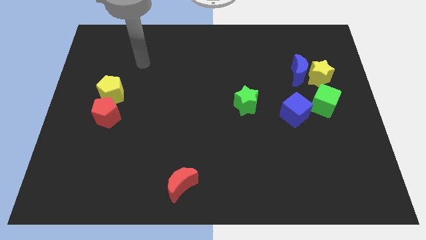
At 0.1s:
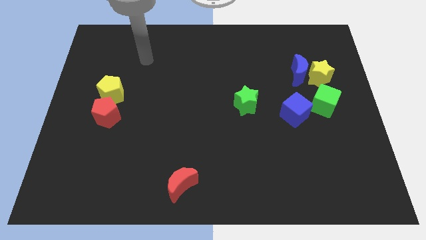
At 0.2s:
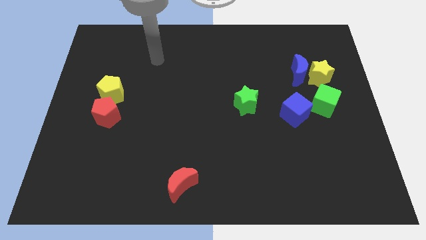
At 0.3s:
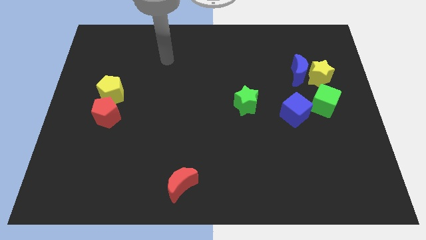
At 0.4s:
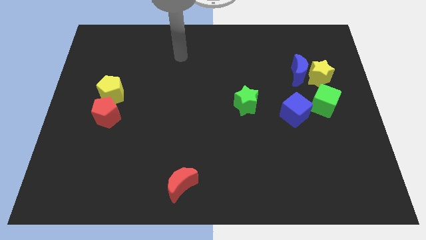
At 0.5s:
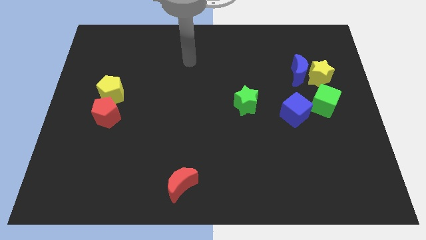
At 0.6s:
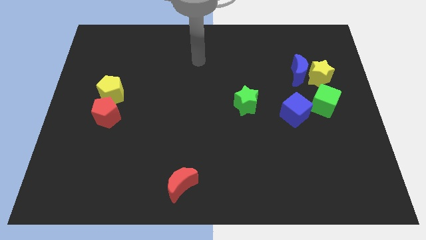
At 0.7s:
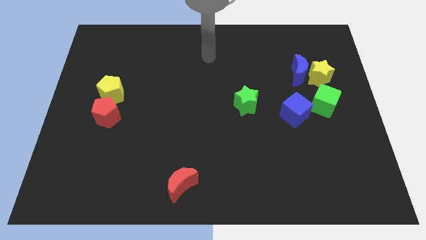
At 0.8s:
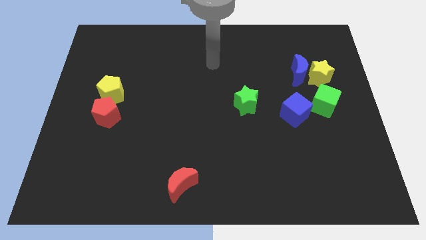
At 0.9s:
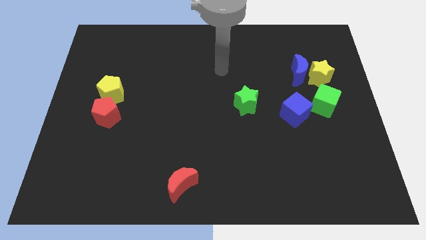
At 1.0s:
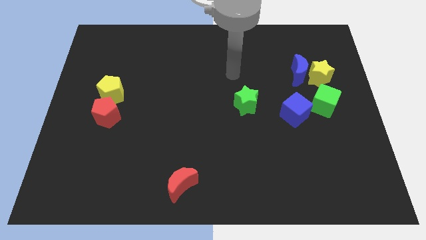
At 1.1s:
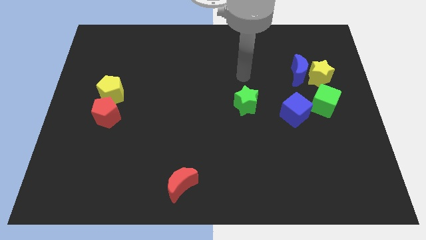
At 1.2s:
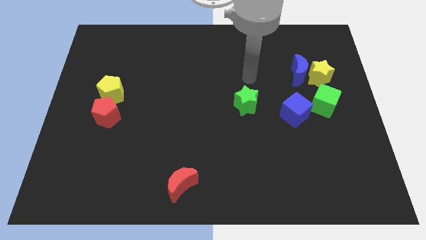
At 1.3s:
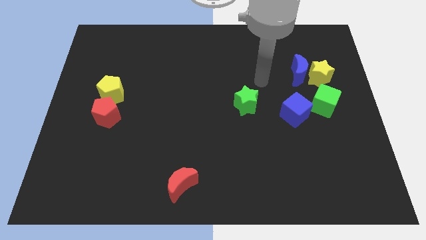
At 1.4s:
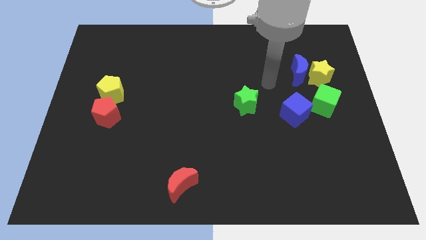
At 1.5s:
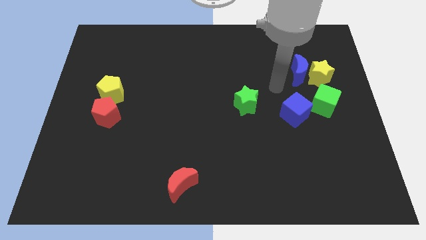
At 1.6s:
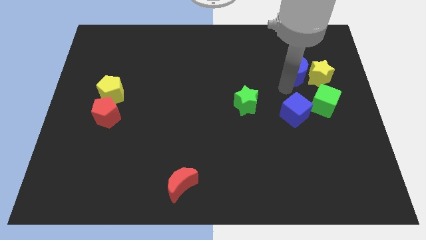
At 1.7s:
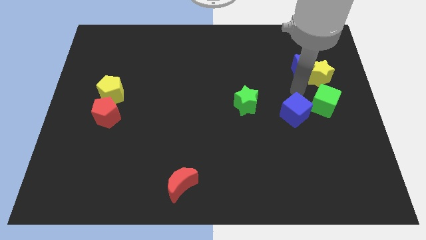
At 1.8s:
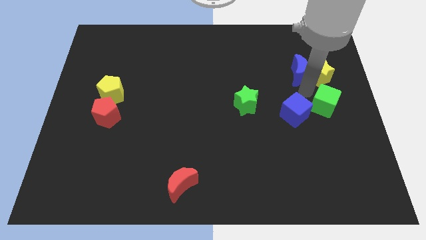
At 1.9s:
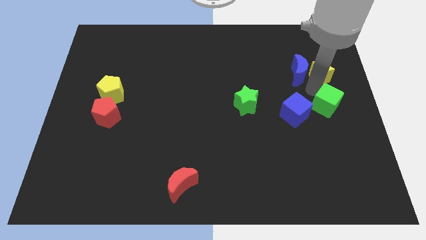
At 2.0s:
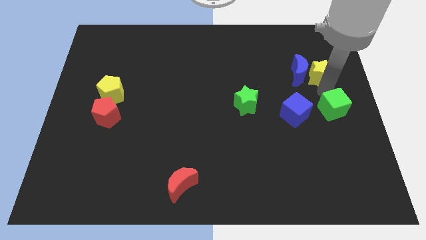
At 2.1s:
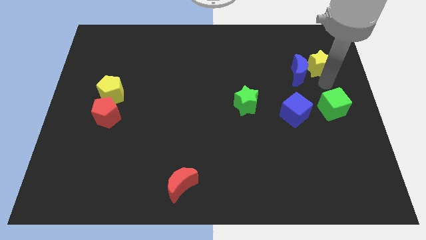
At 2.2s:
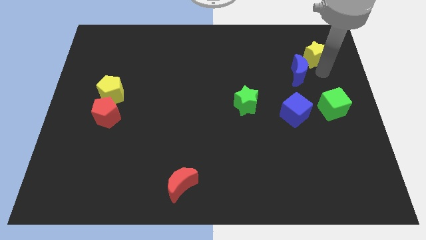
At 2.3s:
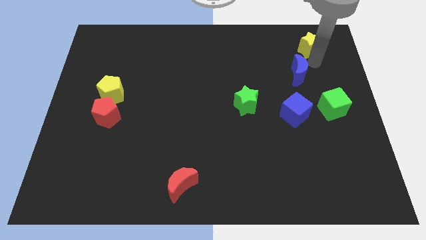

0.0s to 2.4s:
separate the blue moon from the yellow star

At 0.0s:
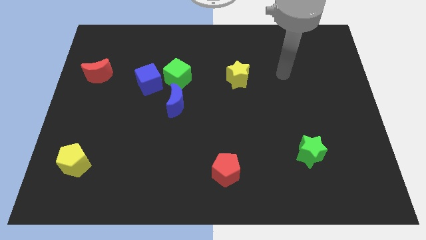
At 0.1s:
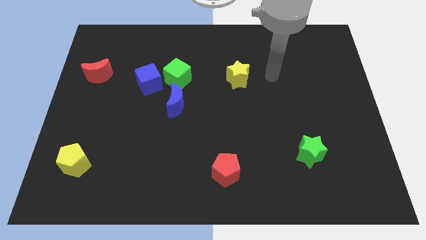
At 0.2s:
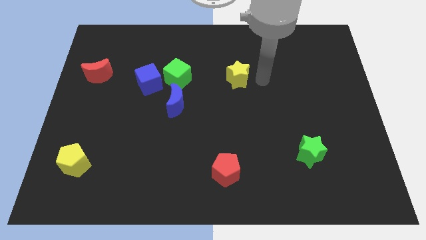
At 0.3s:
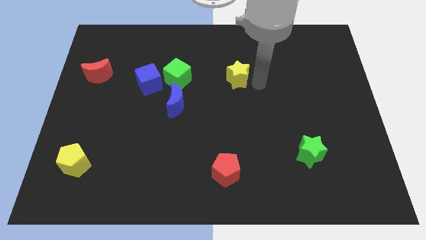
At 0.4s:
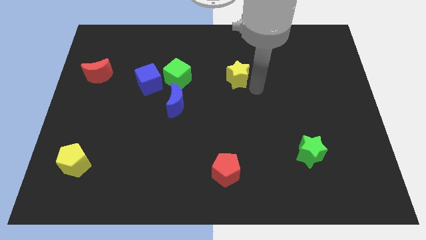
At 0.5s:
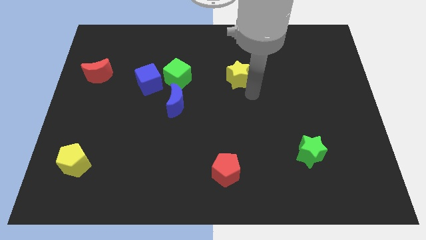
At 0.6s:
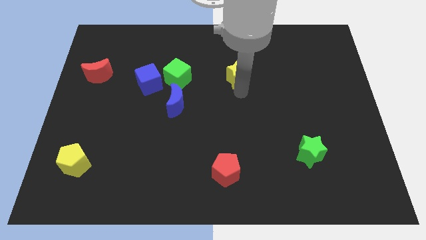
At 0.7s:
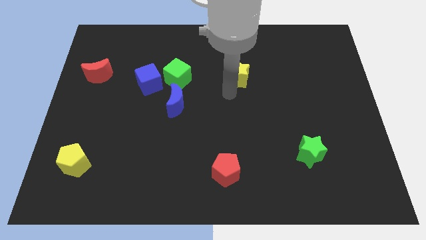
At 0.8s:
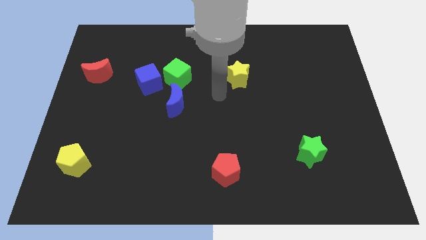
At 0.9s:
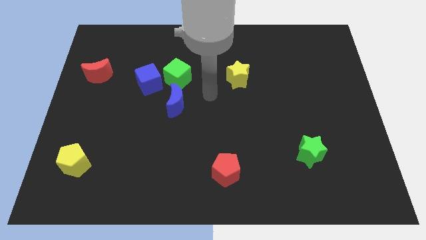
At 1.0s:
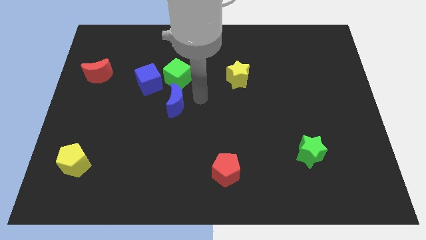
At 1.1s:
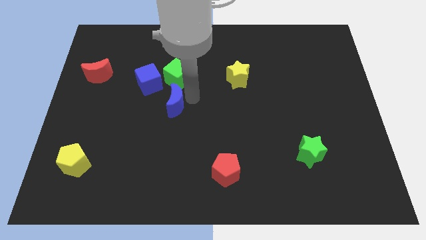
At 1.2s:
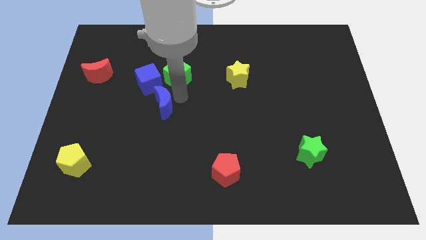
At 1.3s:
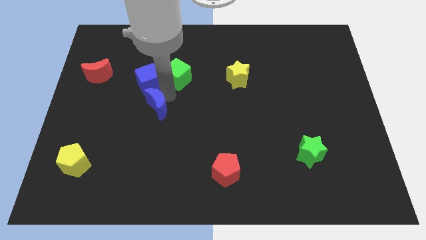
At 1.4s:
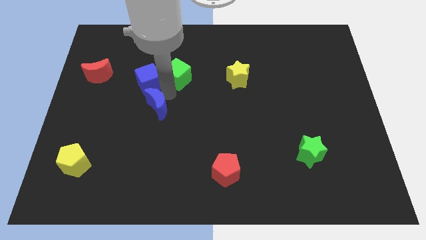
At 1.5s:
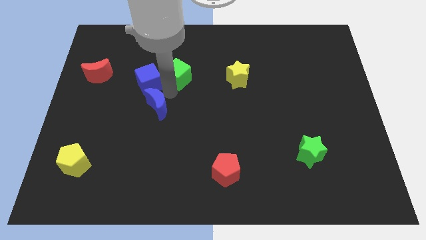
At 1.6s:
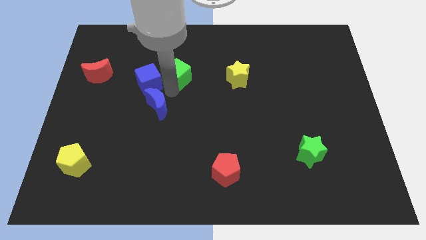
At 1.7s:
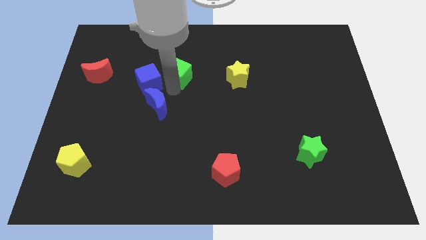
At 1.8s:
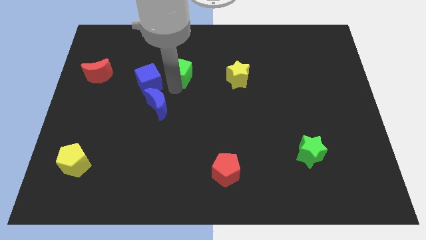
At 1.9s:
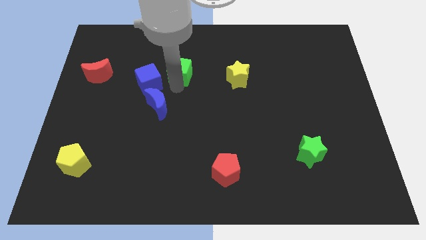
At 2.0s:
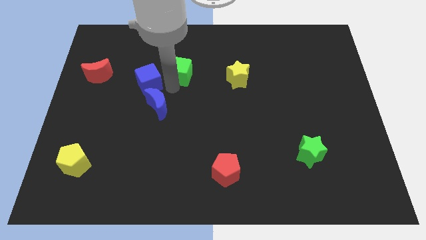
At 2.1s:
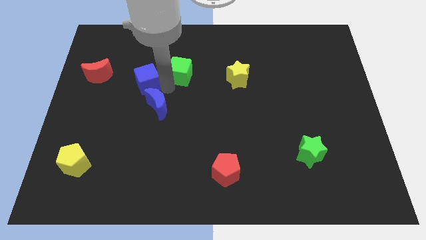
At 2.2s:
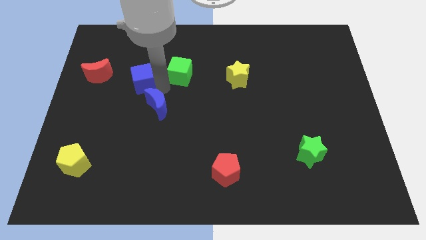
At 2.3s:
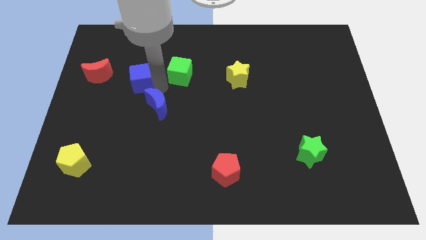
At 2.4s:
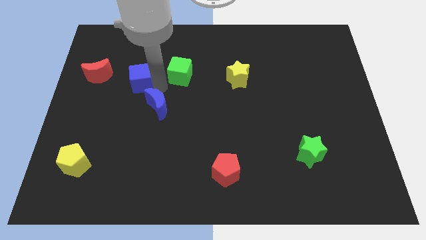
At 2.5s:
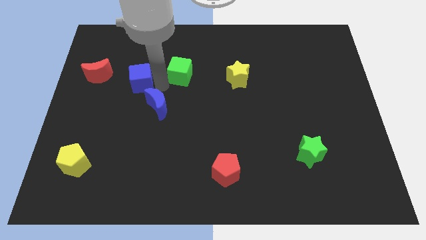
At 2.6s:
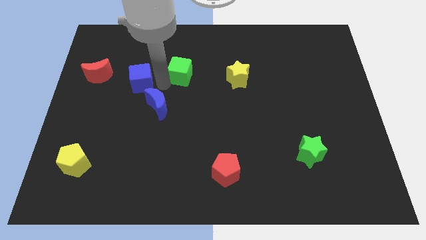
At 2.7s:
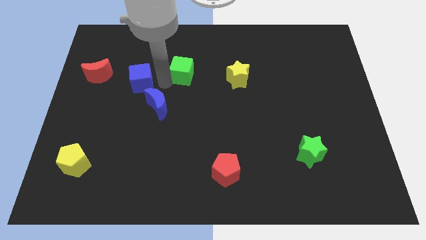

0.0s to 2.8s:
move the green cube away from the blue cube and blue moon

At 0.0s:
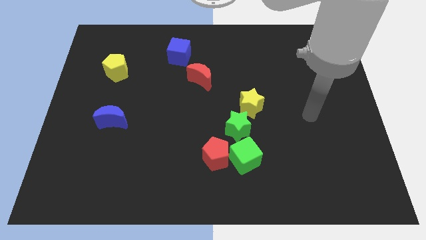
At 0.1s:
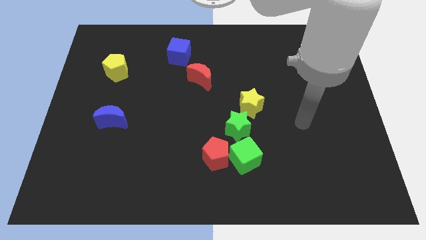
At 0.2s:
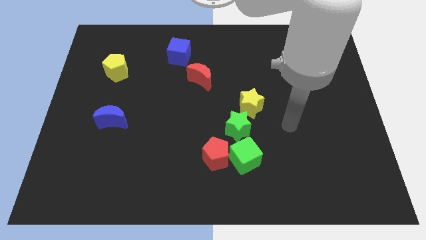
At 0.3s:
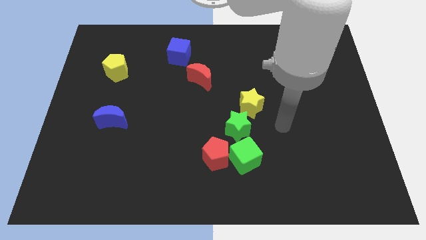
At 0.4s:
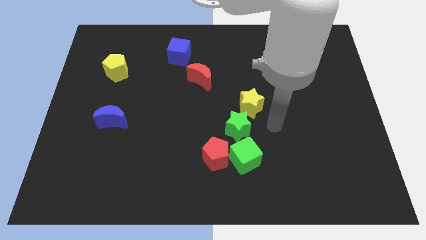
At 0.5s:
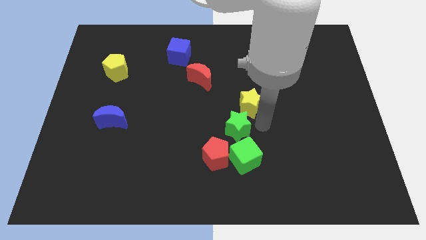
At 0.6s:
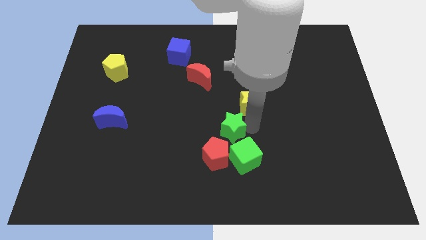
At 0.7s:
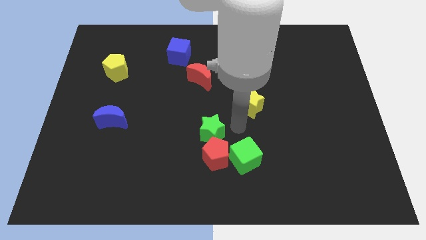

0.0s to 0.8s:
separate the yellow star from the green star

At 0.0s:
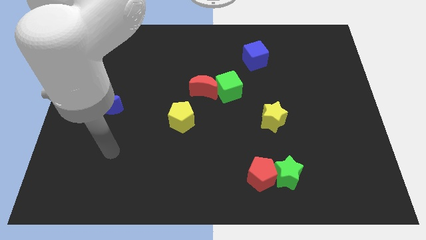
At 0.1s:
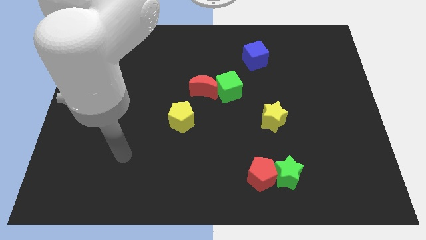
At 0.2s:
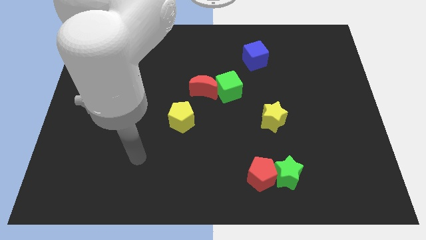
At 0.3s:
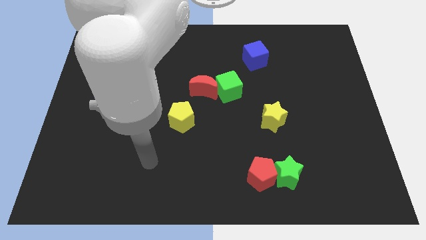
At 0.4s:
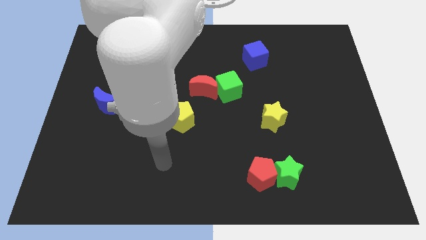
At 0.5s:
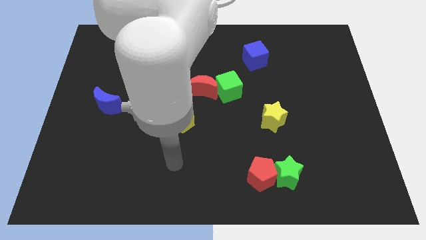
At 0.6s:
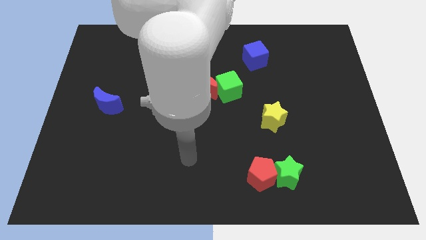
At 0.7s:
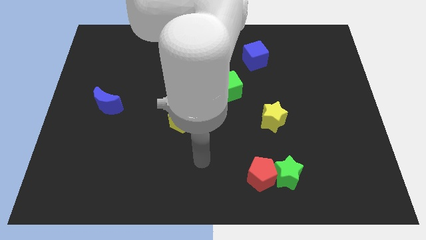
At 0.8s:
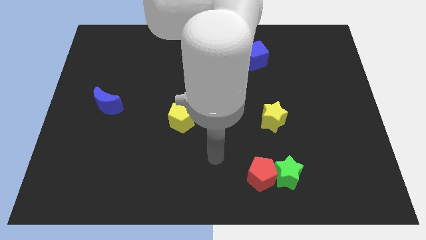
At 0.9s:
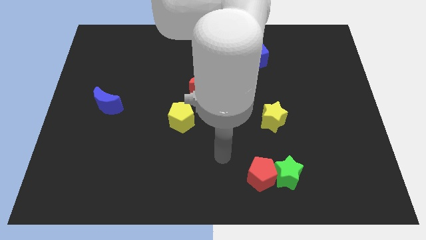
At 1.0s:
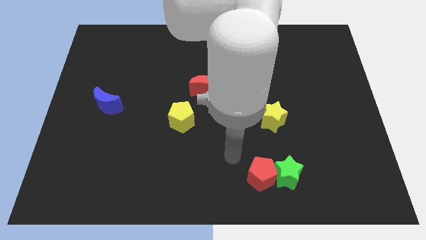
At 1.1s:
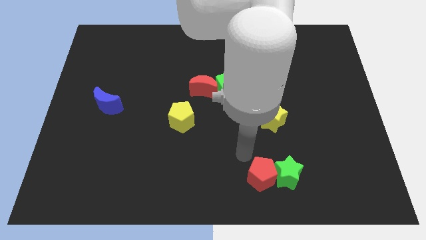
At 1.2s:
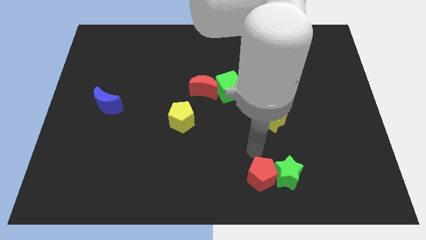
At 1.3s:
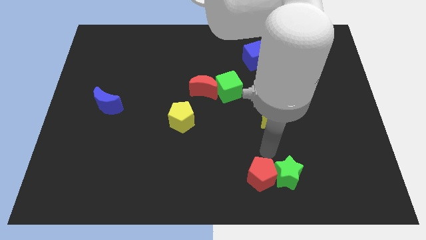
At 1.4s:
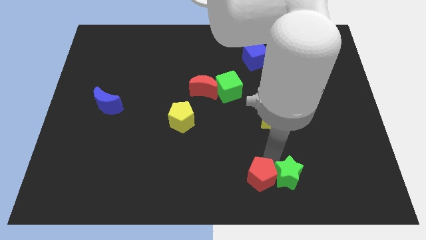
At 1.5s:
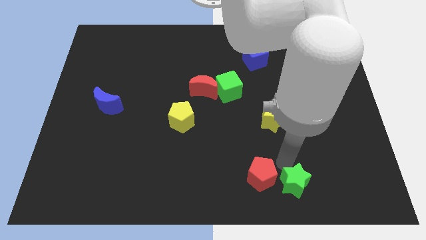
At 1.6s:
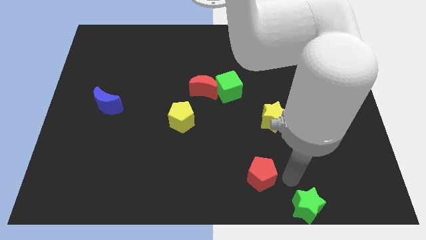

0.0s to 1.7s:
separate the red pentagon from the green star

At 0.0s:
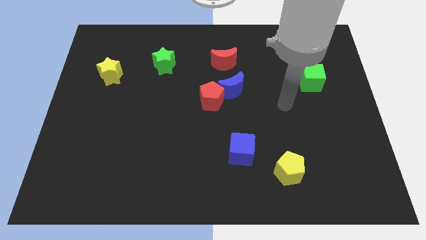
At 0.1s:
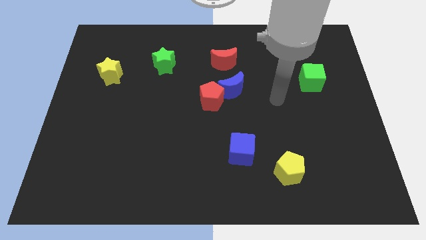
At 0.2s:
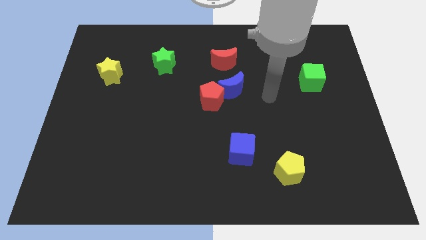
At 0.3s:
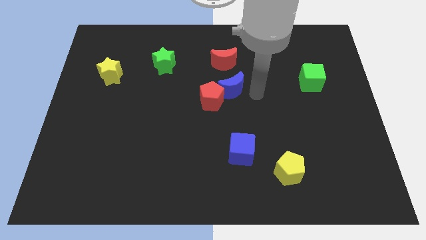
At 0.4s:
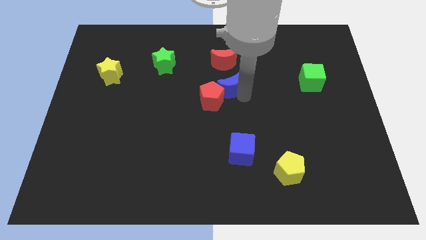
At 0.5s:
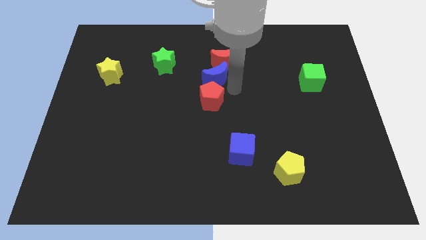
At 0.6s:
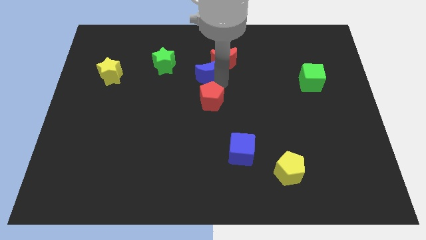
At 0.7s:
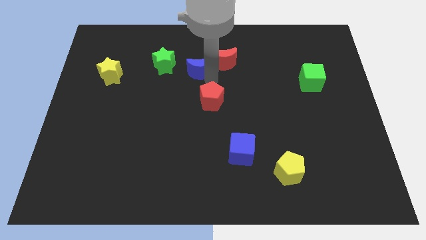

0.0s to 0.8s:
move the red pentagon away from the blue moon

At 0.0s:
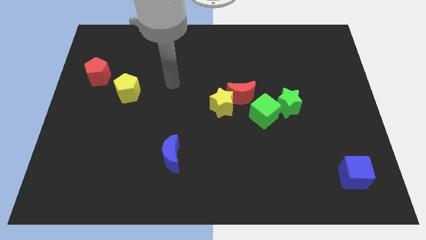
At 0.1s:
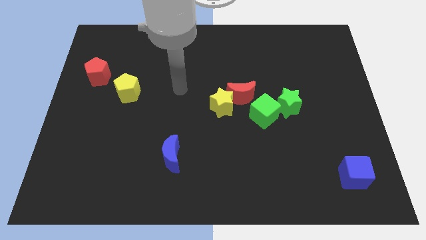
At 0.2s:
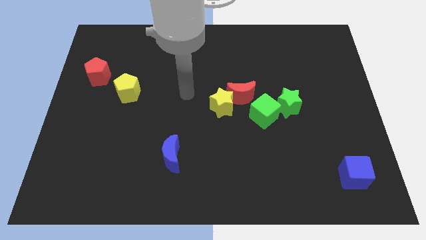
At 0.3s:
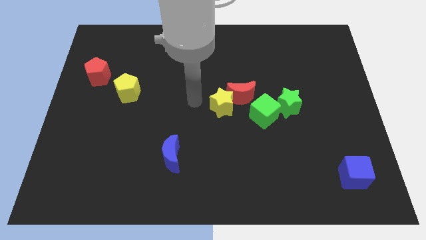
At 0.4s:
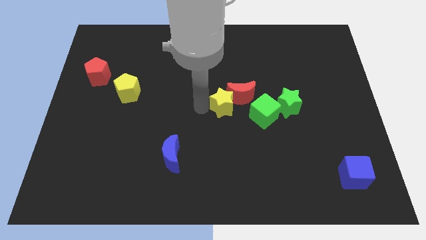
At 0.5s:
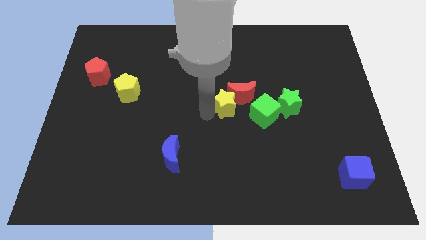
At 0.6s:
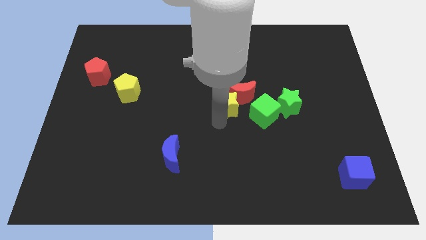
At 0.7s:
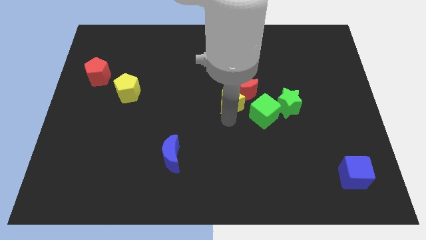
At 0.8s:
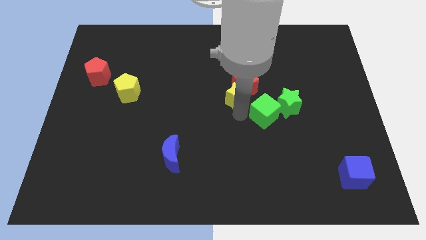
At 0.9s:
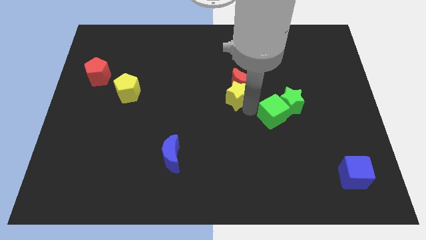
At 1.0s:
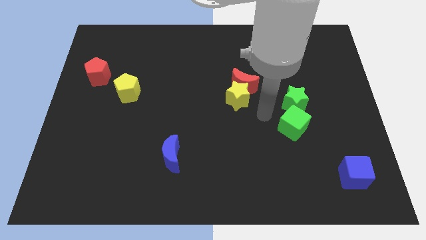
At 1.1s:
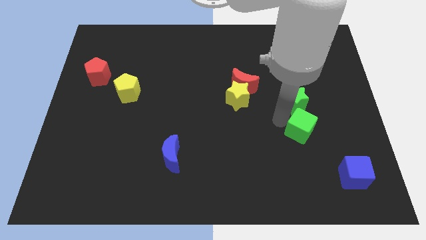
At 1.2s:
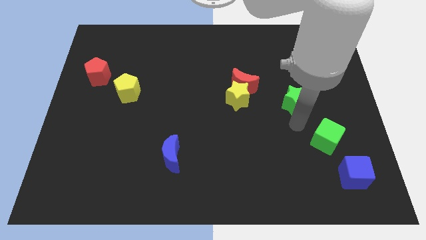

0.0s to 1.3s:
pull the green star apart from the green cube
